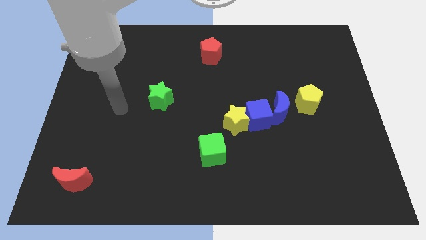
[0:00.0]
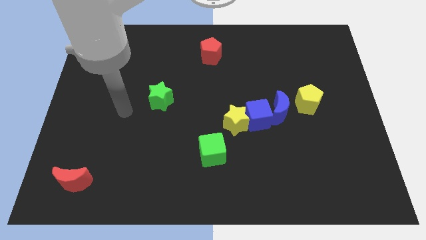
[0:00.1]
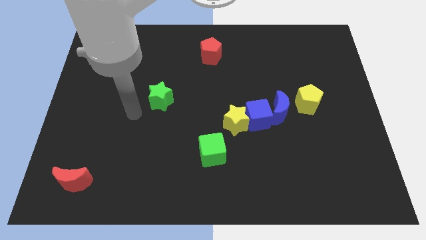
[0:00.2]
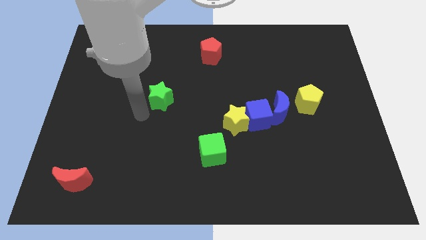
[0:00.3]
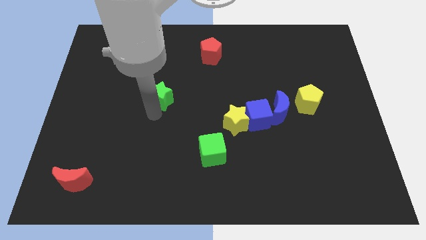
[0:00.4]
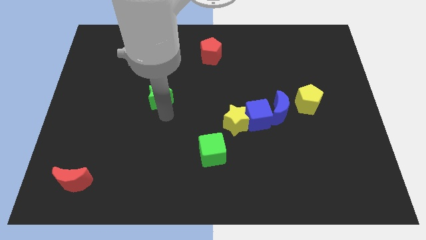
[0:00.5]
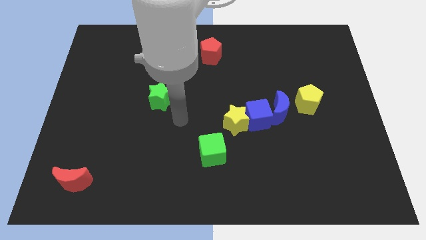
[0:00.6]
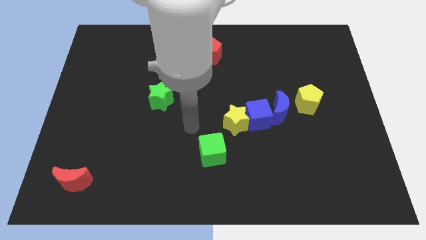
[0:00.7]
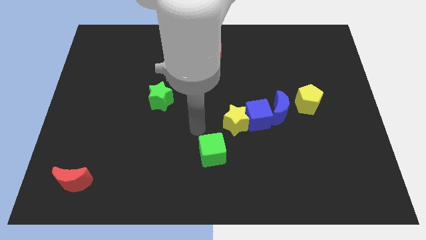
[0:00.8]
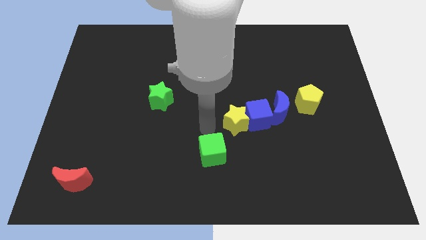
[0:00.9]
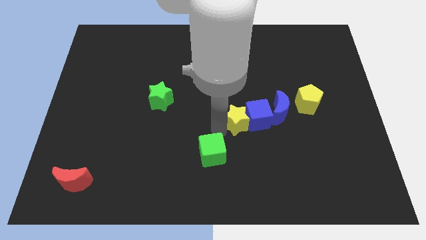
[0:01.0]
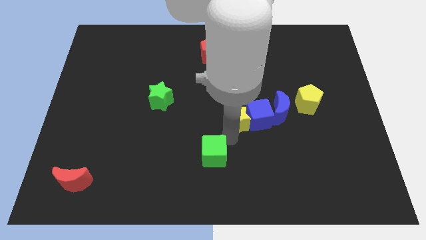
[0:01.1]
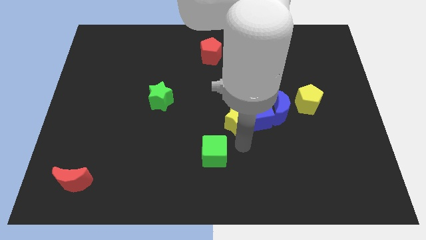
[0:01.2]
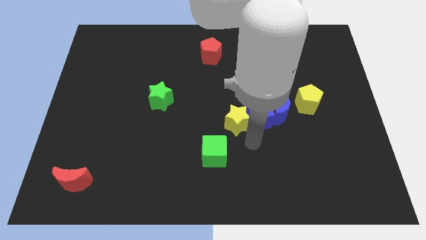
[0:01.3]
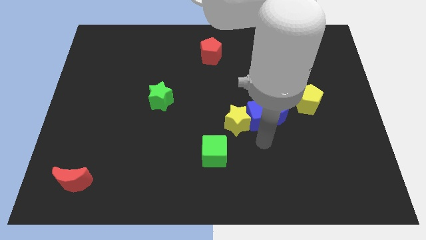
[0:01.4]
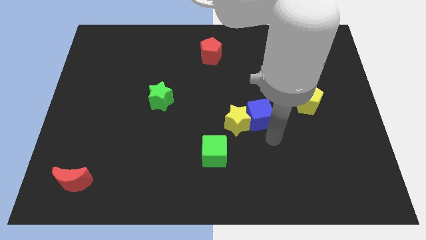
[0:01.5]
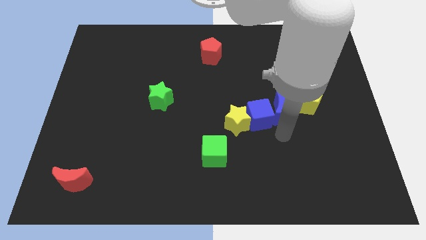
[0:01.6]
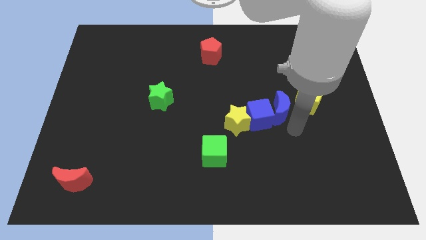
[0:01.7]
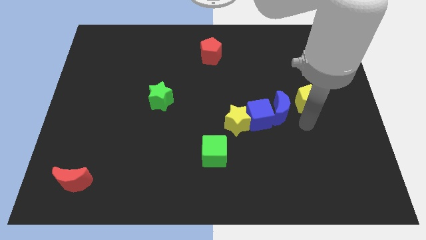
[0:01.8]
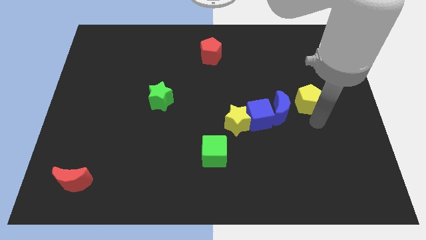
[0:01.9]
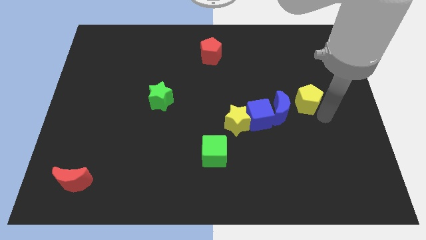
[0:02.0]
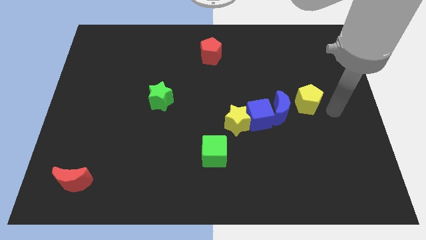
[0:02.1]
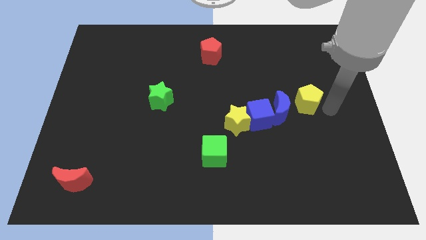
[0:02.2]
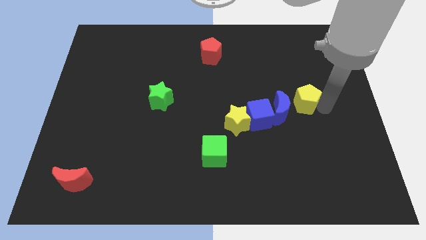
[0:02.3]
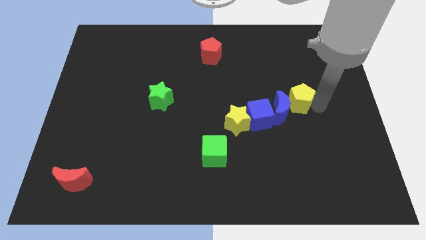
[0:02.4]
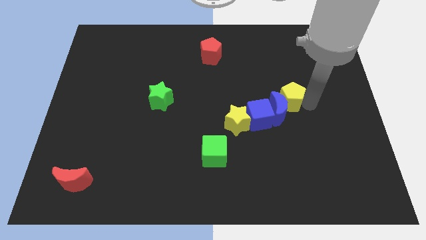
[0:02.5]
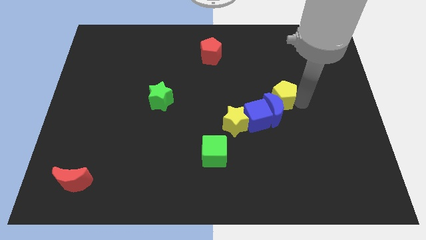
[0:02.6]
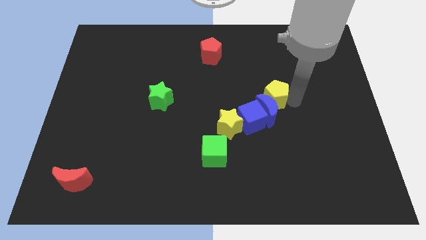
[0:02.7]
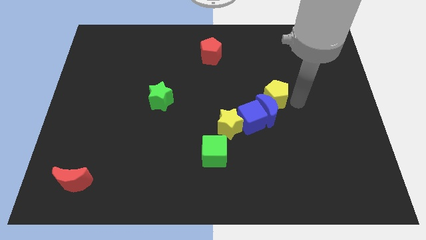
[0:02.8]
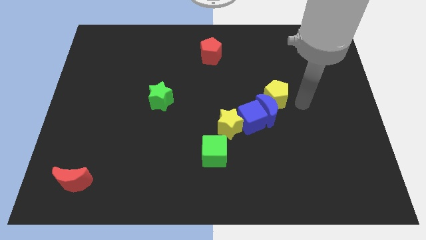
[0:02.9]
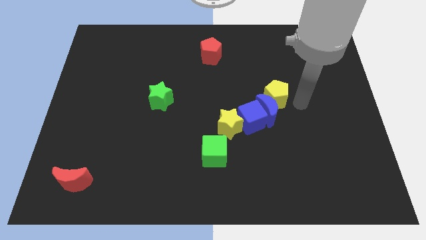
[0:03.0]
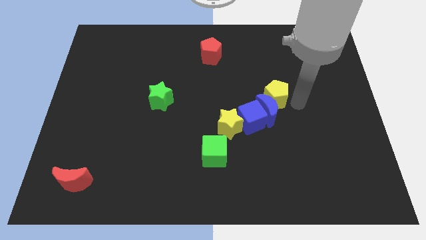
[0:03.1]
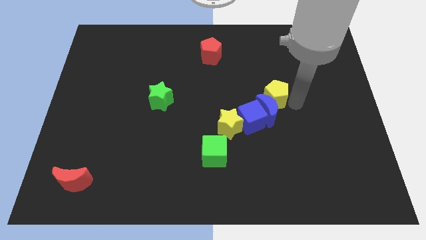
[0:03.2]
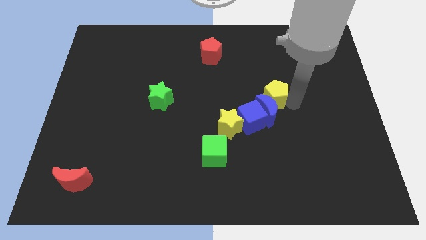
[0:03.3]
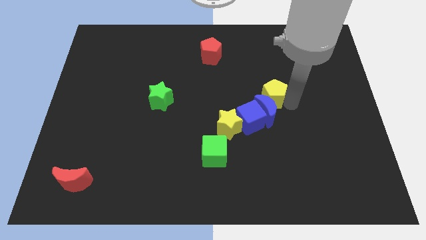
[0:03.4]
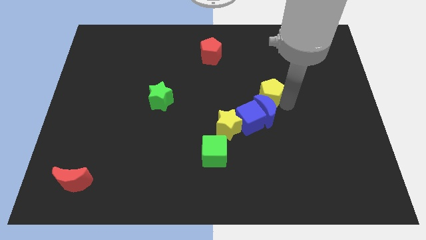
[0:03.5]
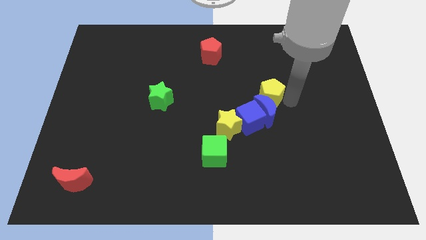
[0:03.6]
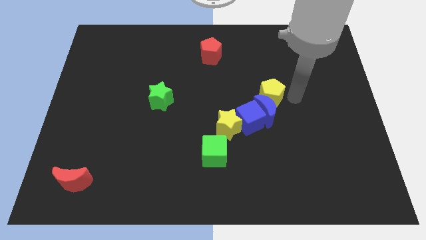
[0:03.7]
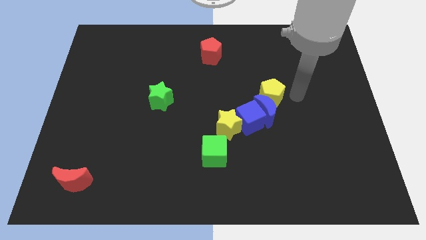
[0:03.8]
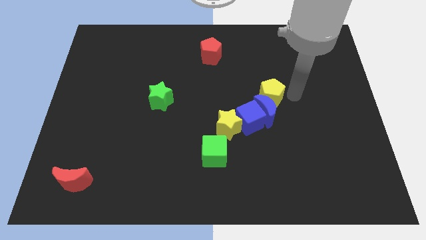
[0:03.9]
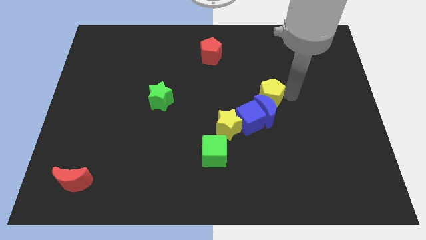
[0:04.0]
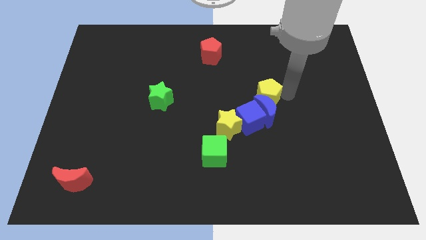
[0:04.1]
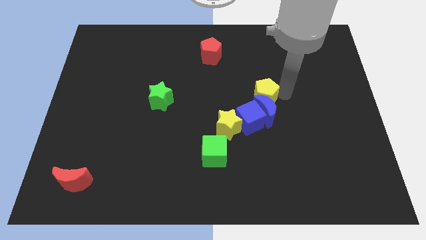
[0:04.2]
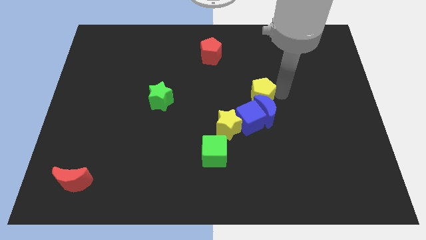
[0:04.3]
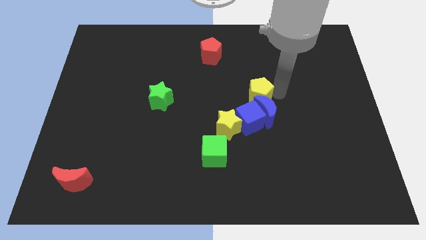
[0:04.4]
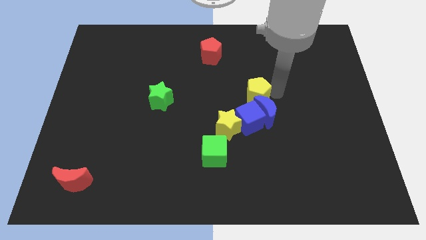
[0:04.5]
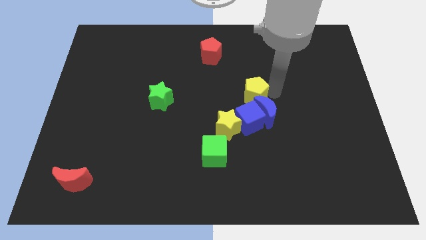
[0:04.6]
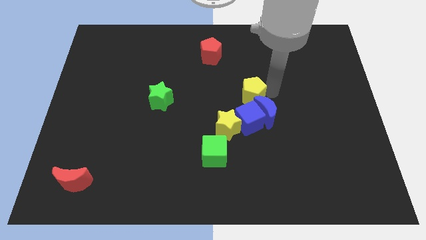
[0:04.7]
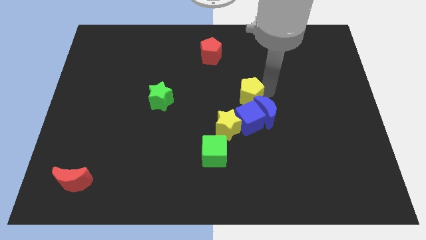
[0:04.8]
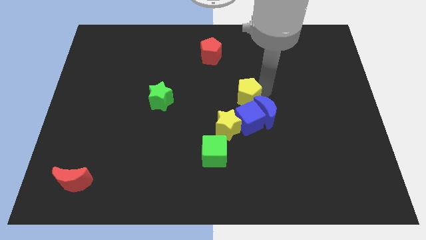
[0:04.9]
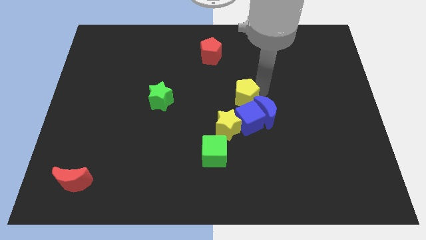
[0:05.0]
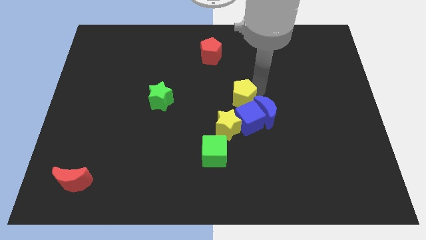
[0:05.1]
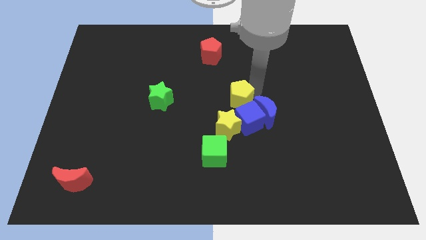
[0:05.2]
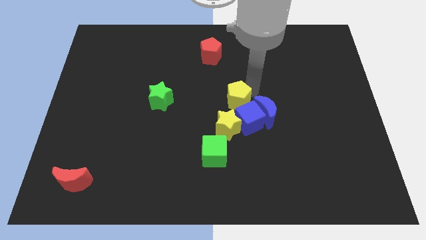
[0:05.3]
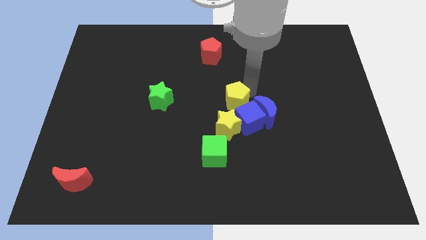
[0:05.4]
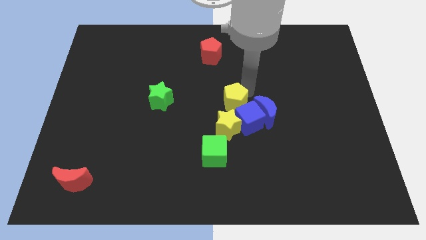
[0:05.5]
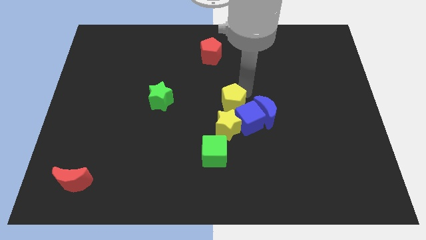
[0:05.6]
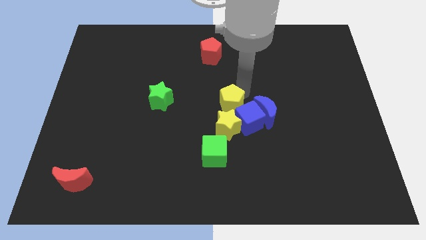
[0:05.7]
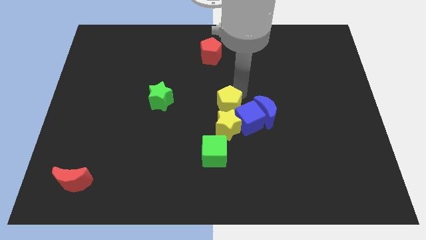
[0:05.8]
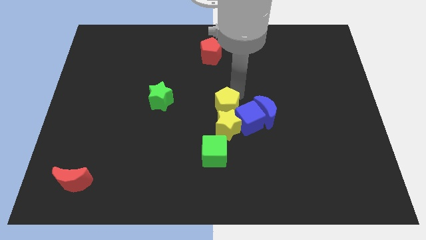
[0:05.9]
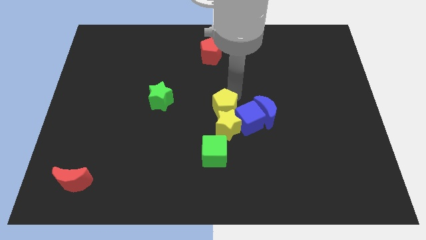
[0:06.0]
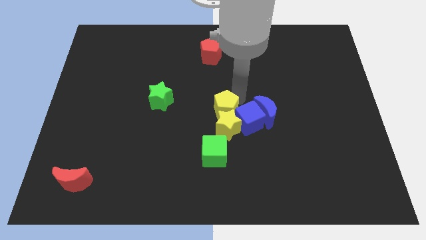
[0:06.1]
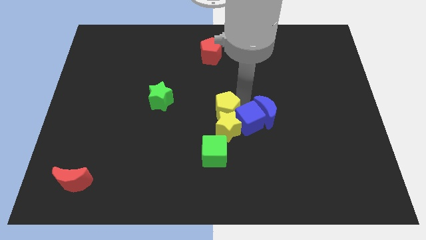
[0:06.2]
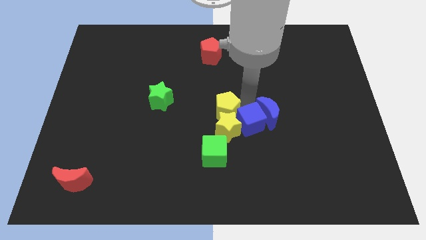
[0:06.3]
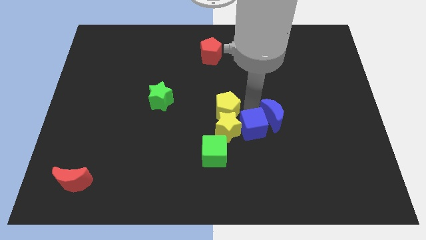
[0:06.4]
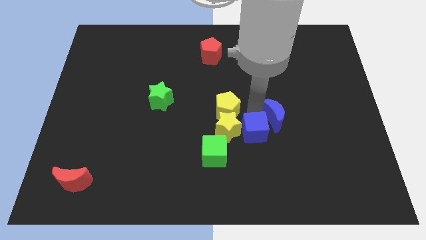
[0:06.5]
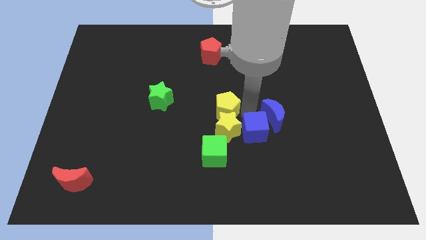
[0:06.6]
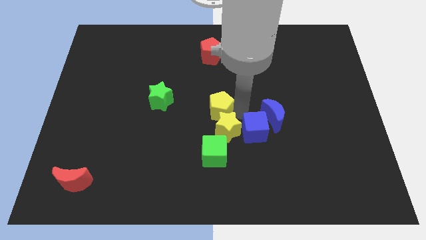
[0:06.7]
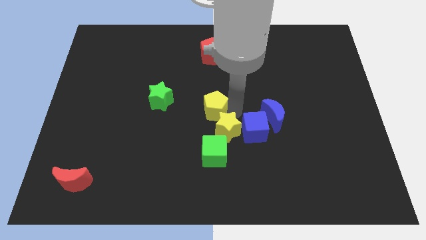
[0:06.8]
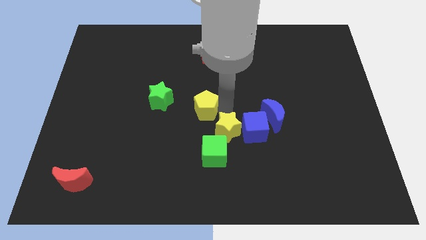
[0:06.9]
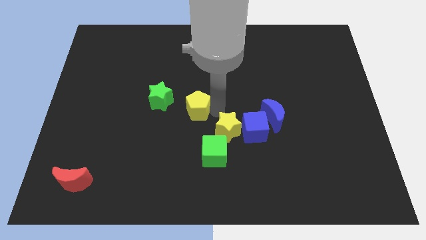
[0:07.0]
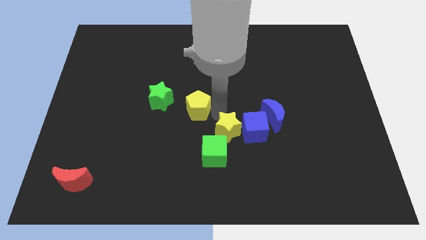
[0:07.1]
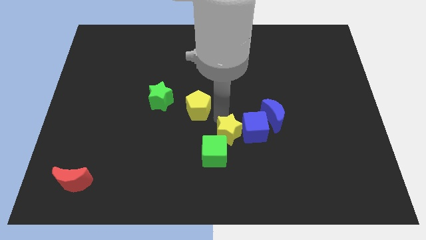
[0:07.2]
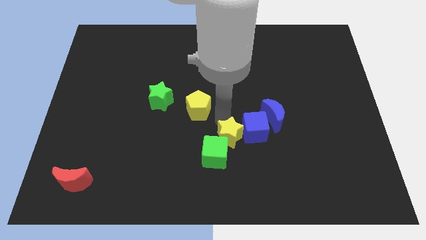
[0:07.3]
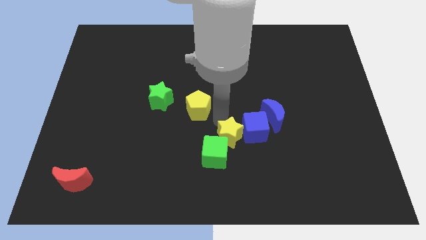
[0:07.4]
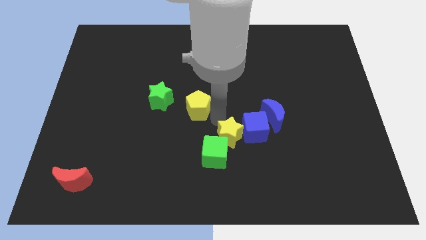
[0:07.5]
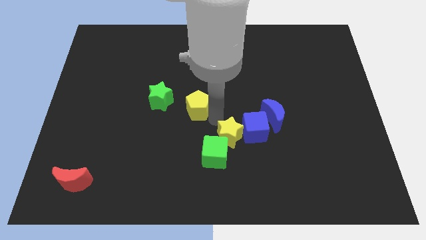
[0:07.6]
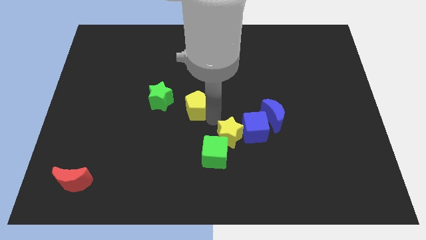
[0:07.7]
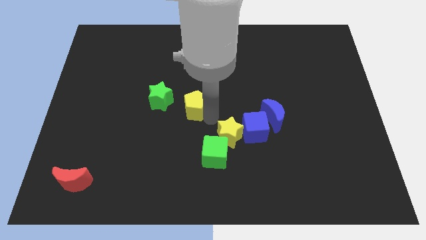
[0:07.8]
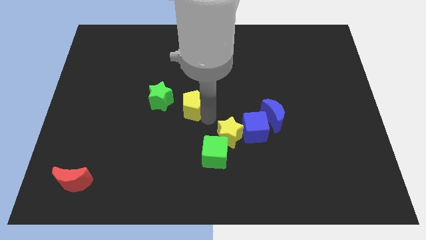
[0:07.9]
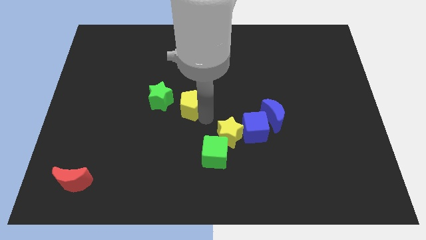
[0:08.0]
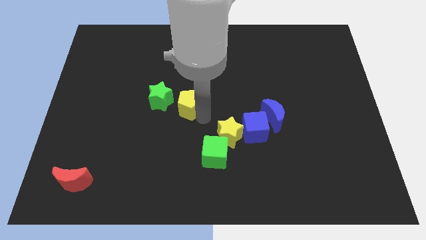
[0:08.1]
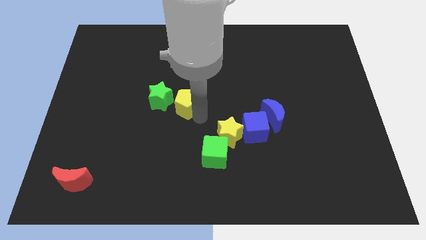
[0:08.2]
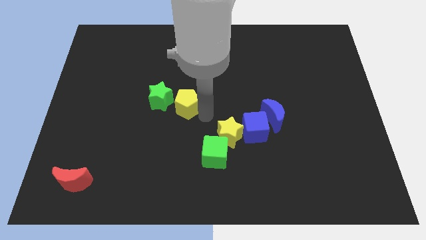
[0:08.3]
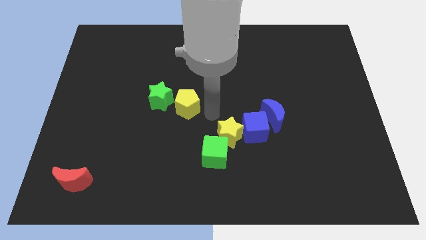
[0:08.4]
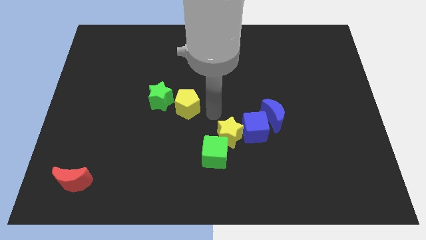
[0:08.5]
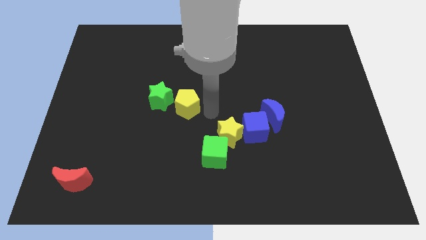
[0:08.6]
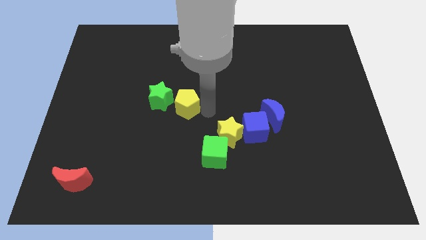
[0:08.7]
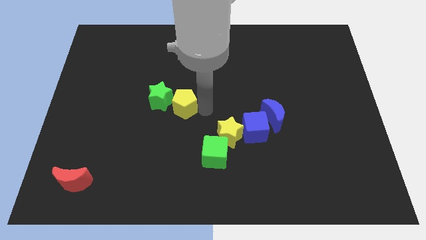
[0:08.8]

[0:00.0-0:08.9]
slide the yellow pentagon towards the green star
